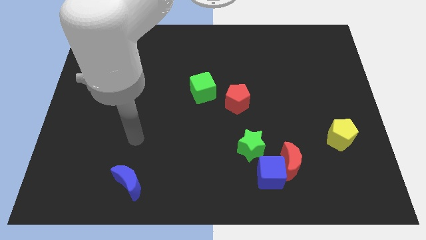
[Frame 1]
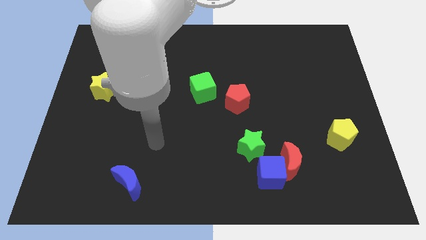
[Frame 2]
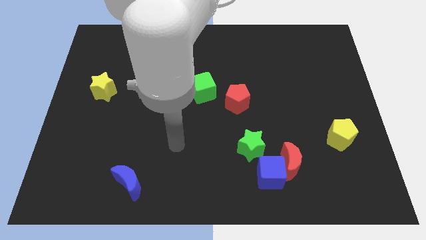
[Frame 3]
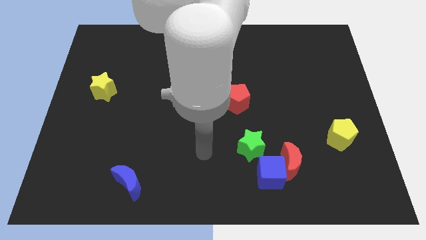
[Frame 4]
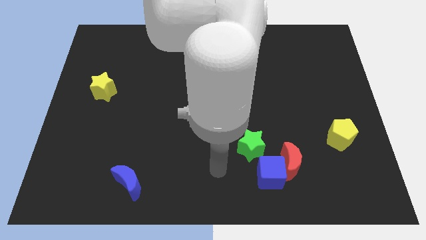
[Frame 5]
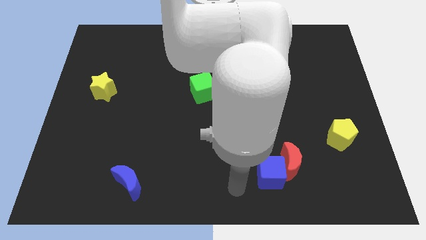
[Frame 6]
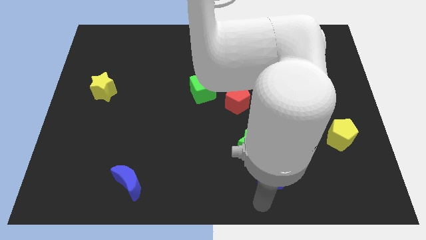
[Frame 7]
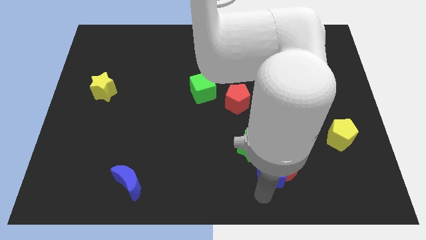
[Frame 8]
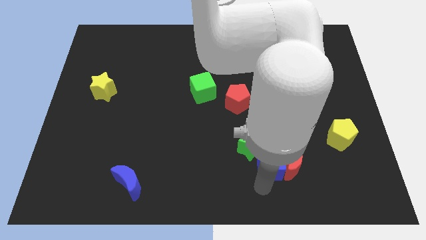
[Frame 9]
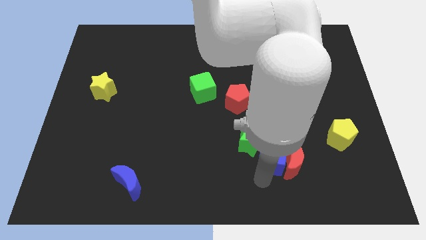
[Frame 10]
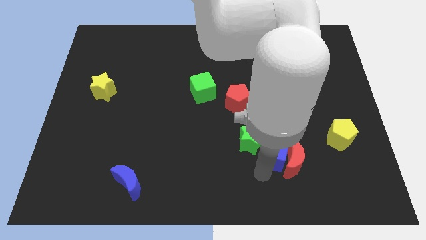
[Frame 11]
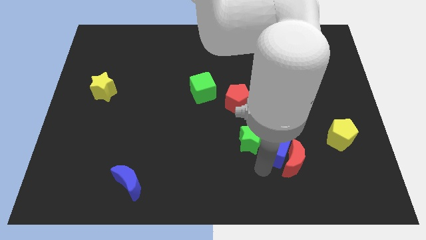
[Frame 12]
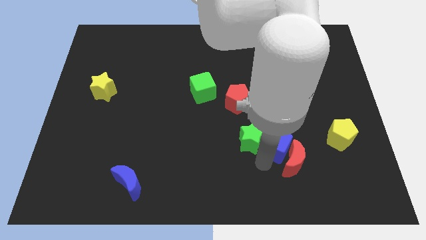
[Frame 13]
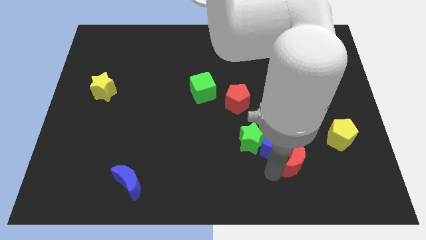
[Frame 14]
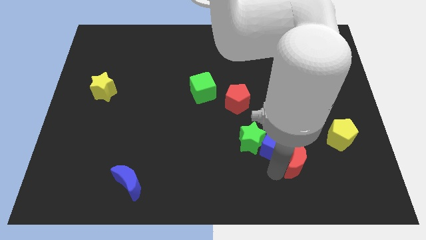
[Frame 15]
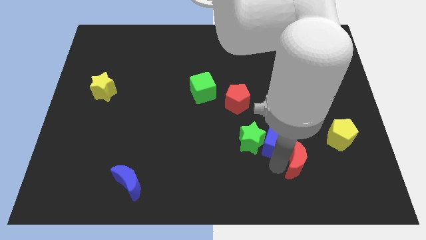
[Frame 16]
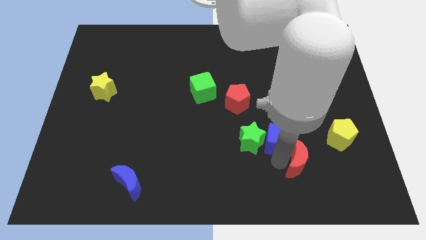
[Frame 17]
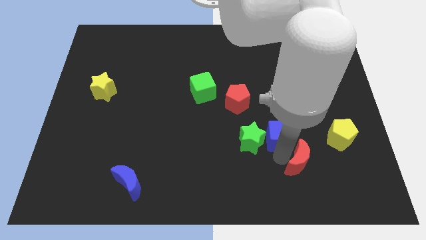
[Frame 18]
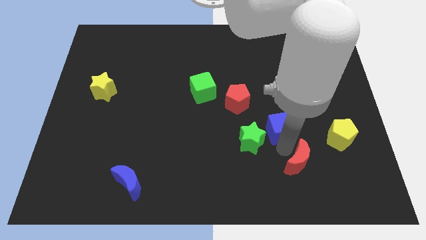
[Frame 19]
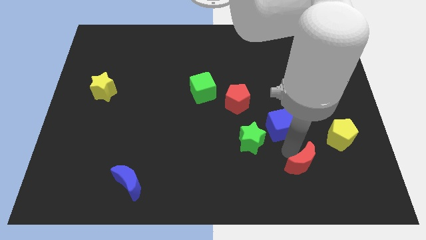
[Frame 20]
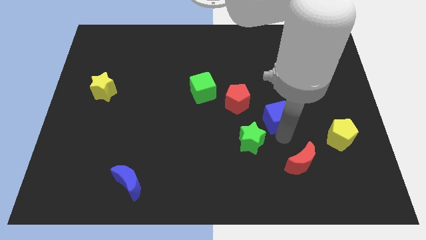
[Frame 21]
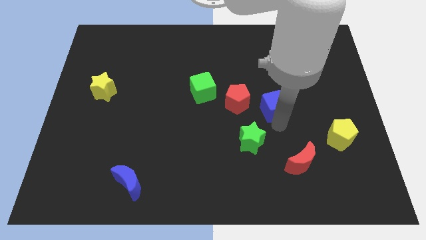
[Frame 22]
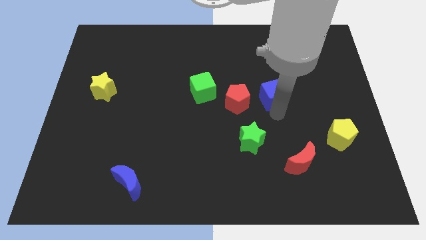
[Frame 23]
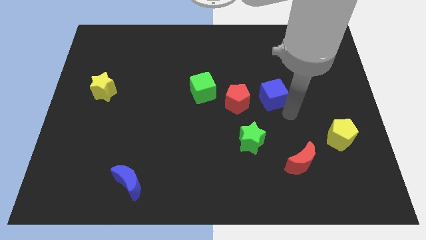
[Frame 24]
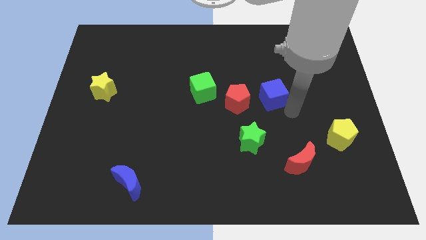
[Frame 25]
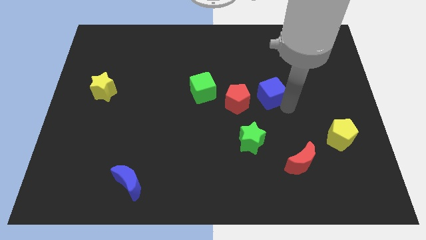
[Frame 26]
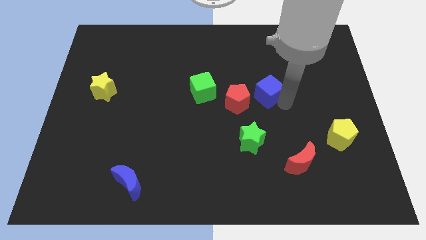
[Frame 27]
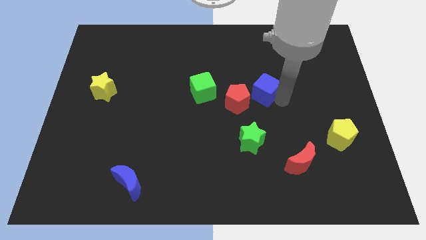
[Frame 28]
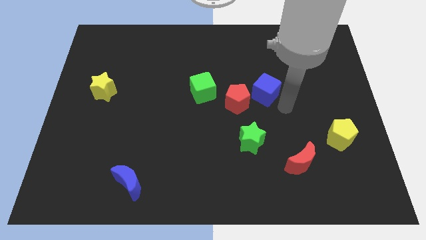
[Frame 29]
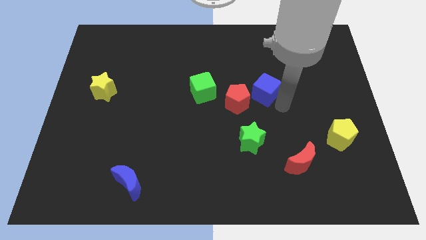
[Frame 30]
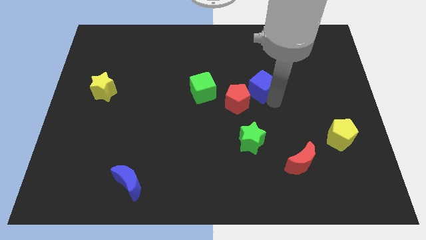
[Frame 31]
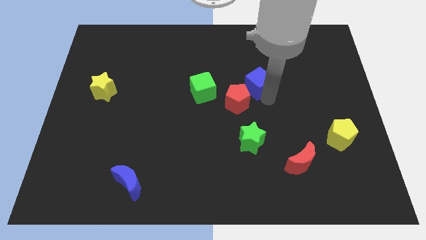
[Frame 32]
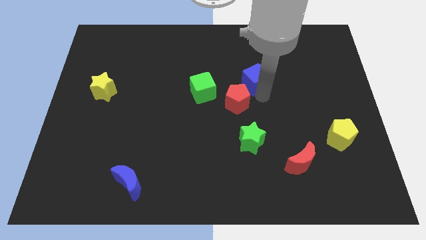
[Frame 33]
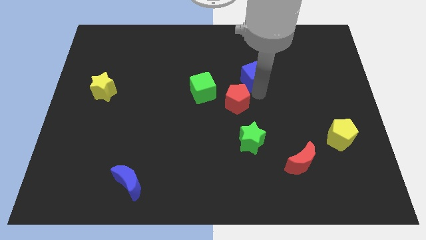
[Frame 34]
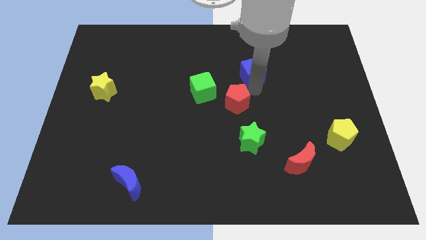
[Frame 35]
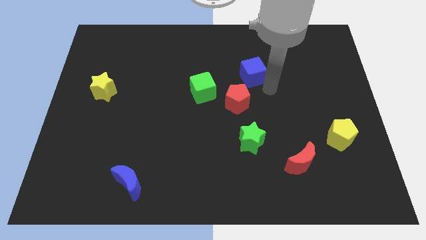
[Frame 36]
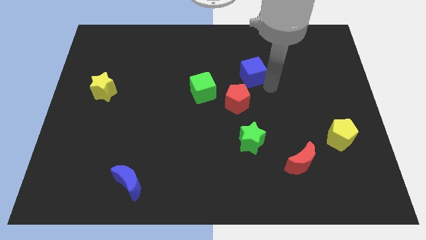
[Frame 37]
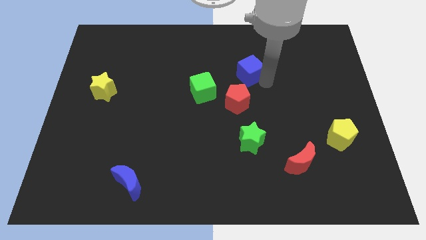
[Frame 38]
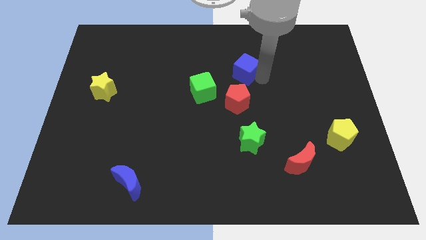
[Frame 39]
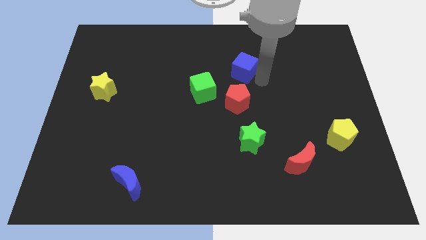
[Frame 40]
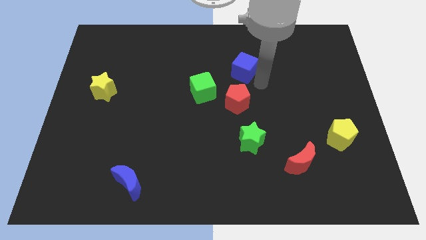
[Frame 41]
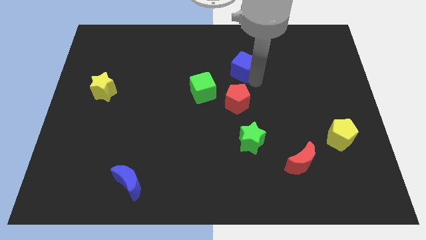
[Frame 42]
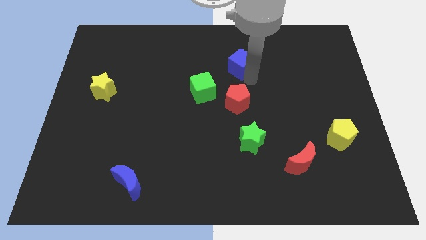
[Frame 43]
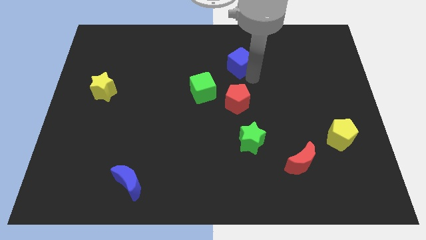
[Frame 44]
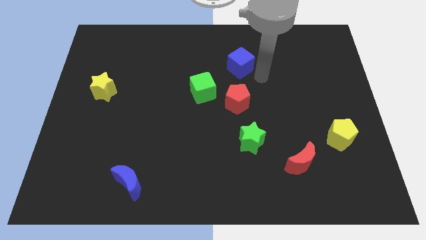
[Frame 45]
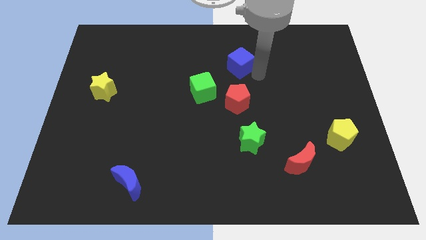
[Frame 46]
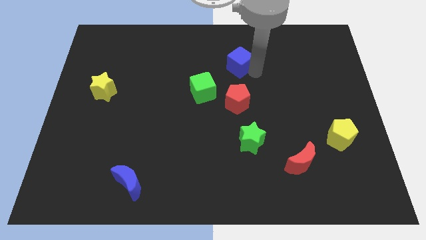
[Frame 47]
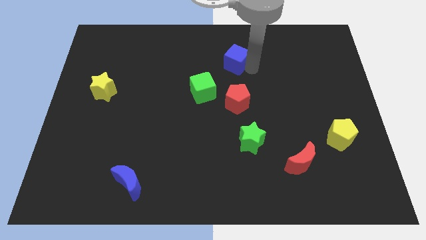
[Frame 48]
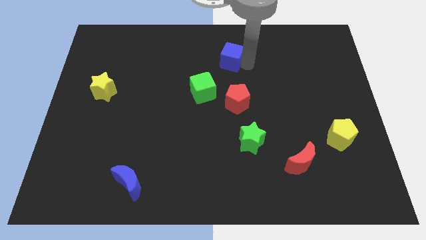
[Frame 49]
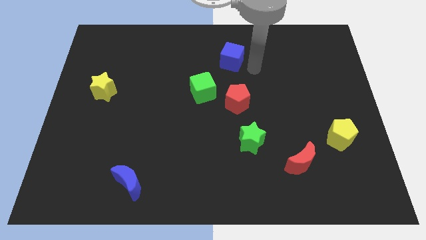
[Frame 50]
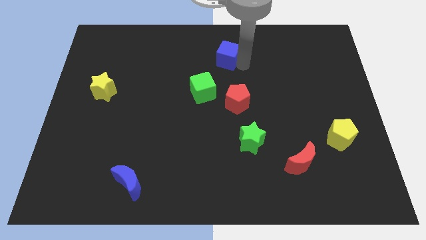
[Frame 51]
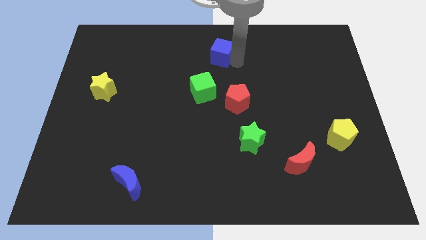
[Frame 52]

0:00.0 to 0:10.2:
slide the blue cube to the top side

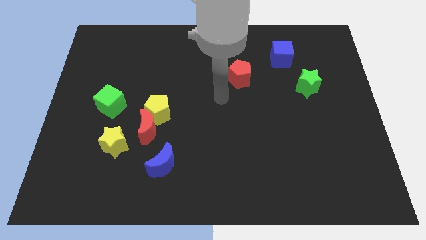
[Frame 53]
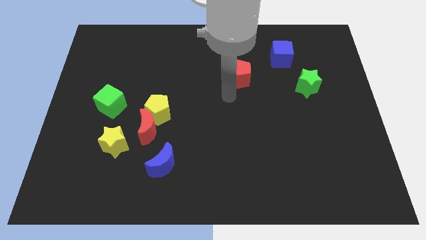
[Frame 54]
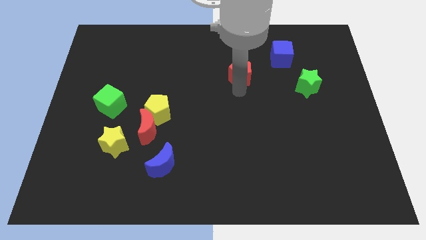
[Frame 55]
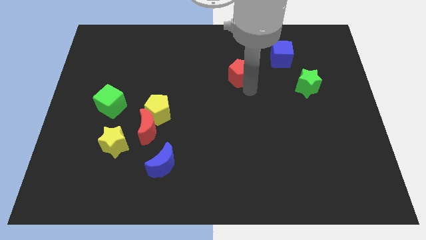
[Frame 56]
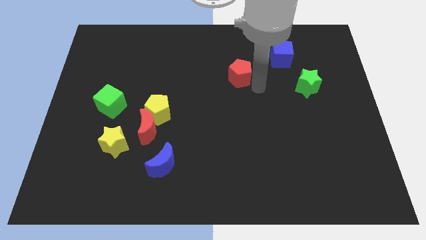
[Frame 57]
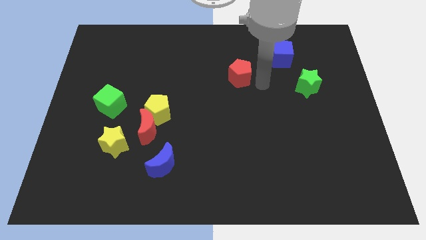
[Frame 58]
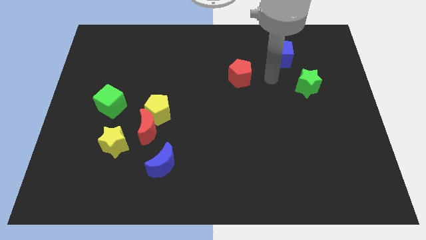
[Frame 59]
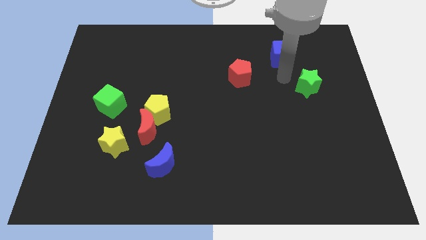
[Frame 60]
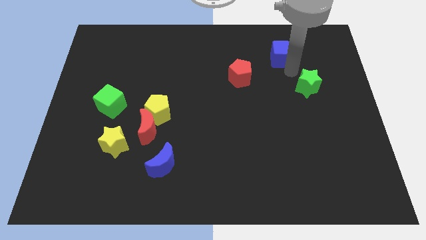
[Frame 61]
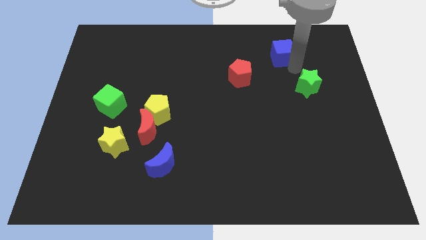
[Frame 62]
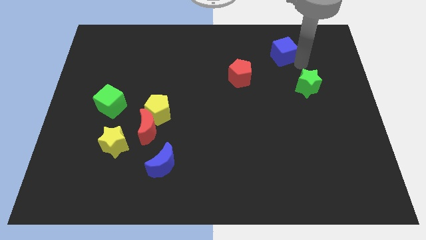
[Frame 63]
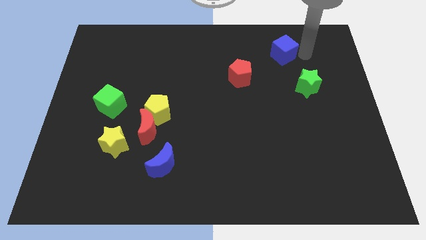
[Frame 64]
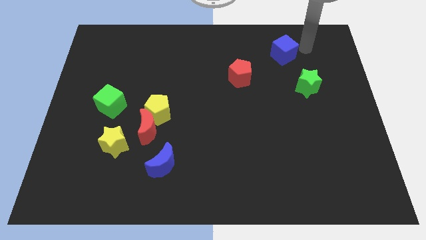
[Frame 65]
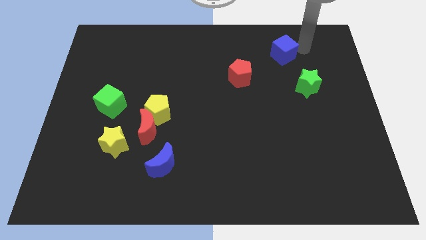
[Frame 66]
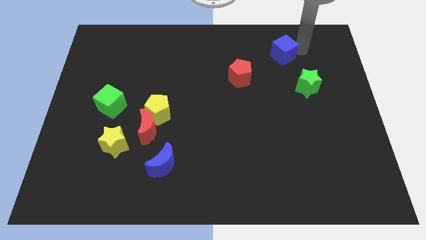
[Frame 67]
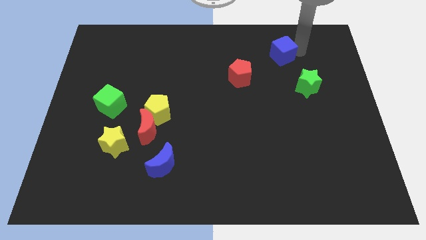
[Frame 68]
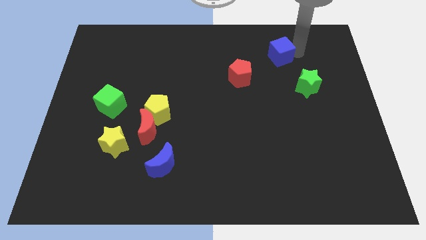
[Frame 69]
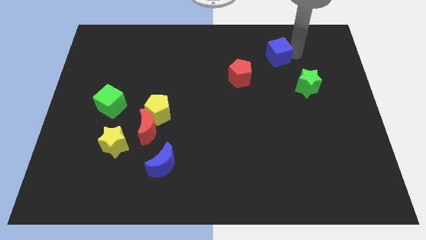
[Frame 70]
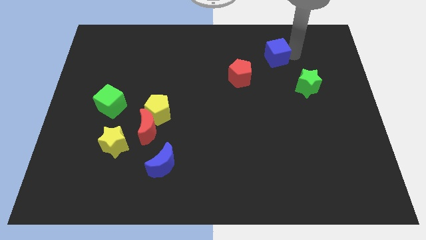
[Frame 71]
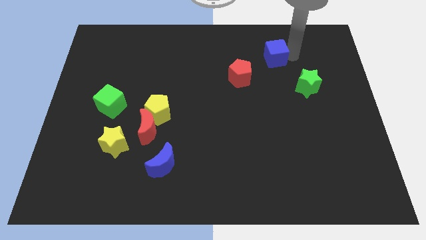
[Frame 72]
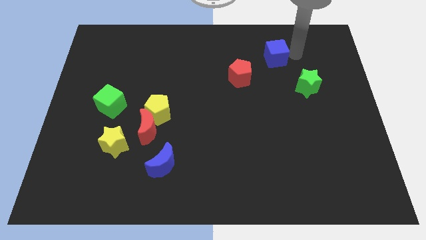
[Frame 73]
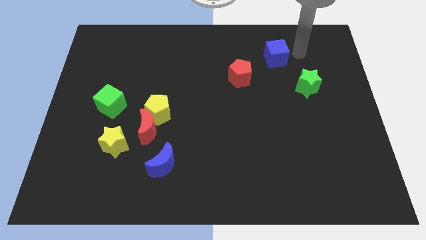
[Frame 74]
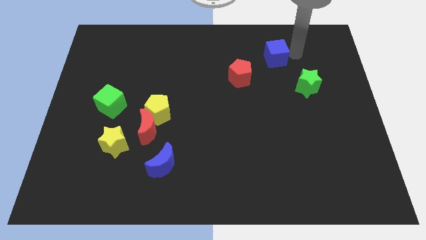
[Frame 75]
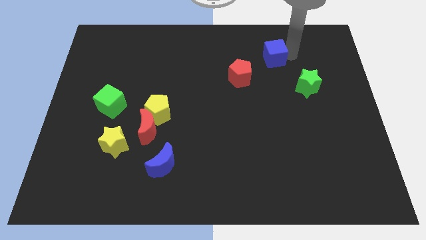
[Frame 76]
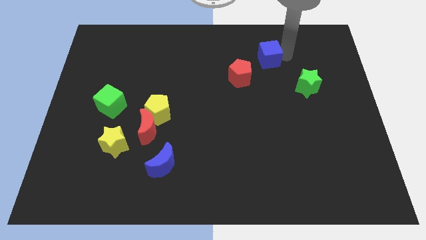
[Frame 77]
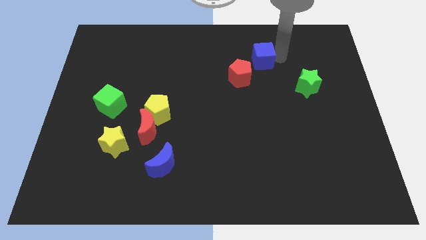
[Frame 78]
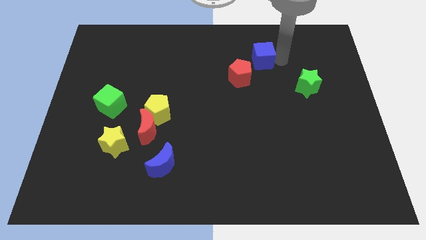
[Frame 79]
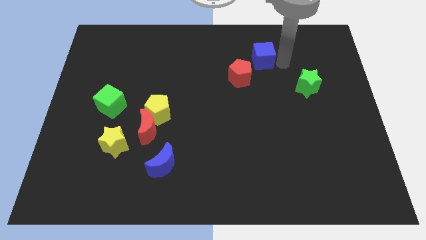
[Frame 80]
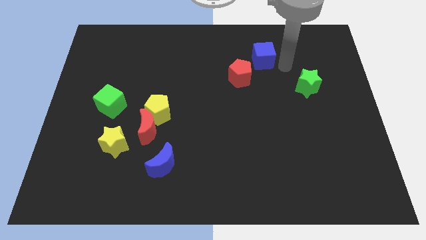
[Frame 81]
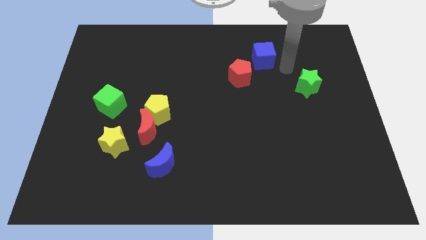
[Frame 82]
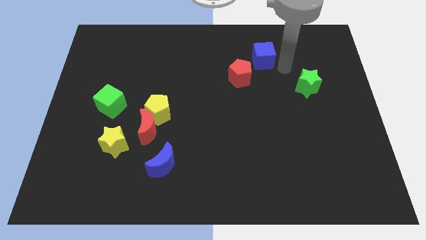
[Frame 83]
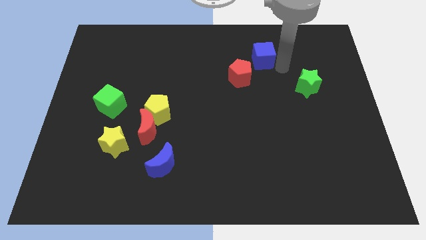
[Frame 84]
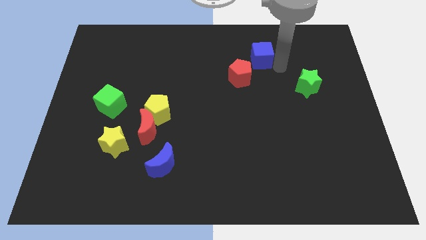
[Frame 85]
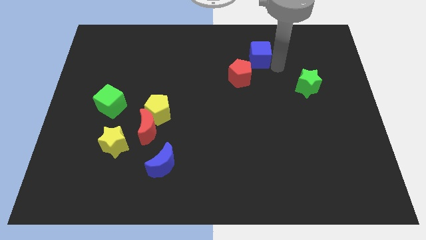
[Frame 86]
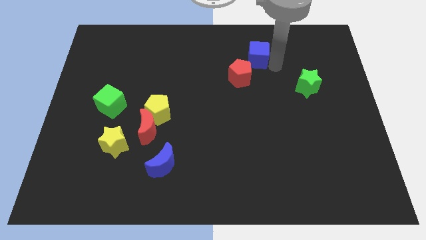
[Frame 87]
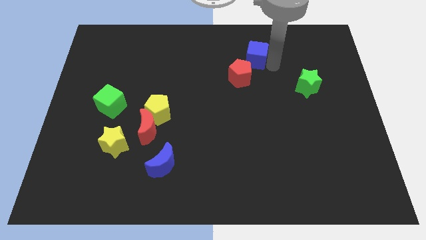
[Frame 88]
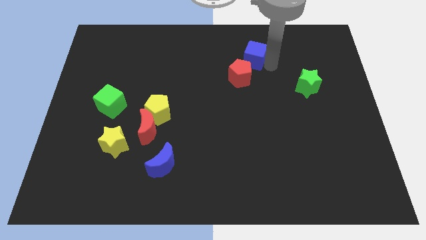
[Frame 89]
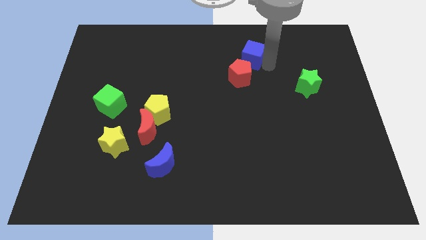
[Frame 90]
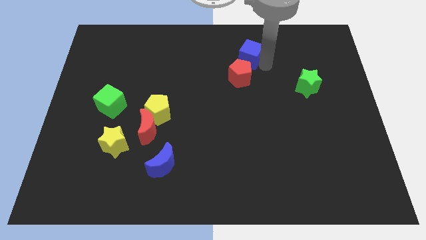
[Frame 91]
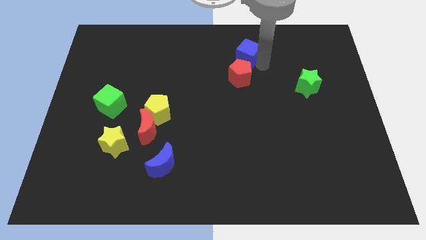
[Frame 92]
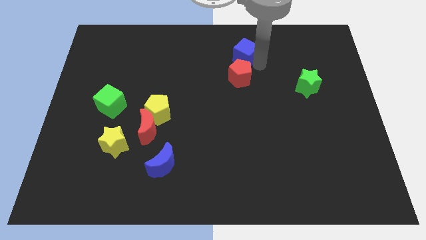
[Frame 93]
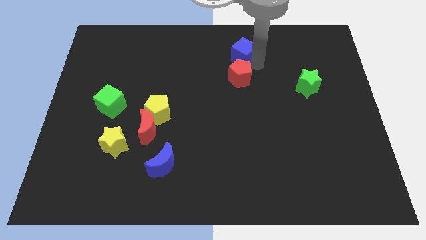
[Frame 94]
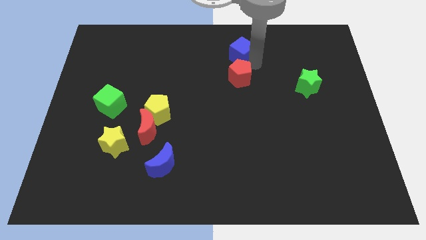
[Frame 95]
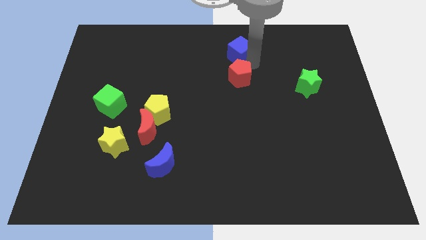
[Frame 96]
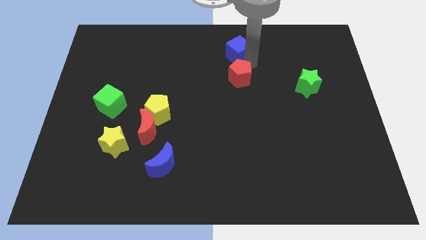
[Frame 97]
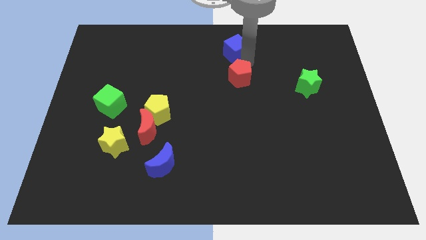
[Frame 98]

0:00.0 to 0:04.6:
put the blue cube to the top
